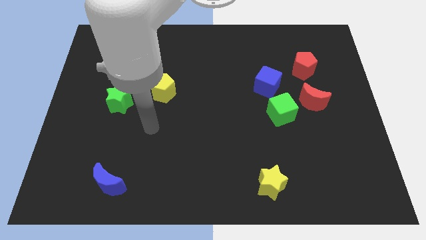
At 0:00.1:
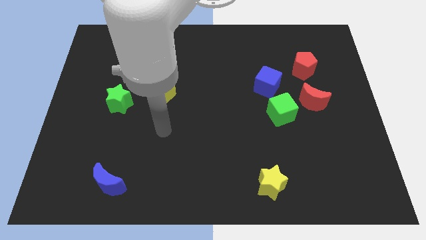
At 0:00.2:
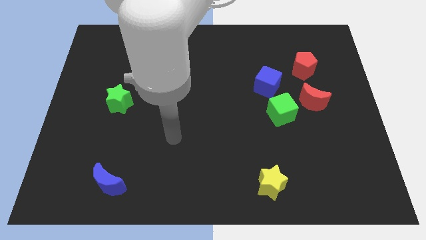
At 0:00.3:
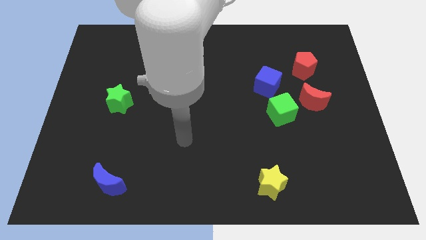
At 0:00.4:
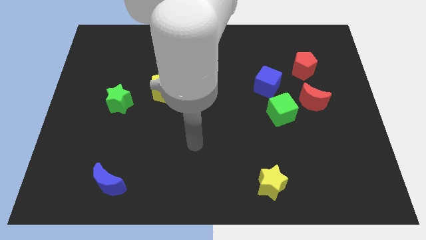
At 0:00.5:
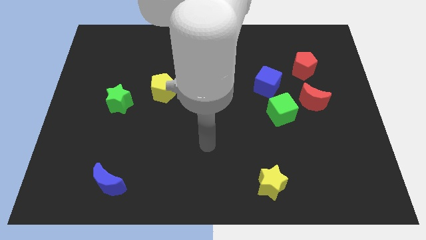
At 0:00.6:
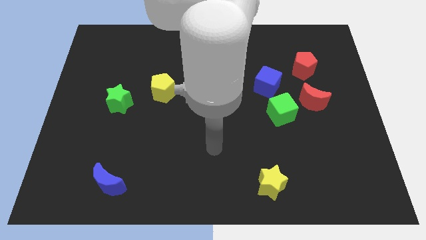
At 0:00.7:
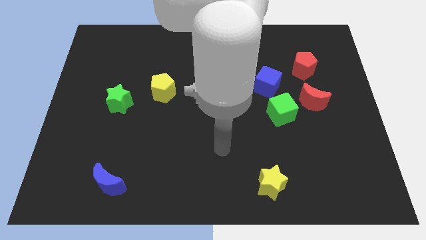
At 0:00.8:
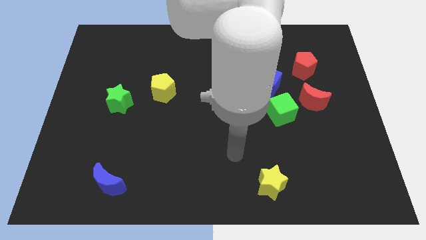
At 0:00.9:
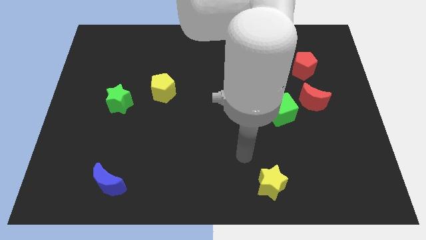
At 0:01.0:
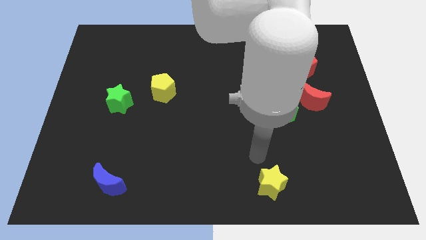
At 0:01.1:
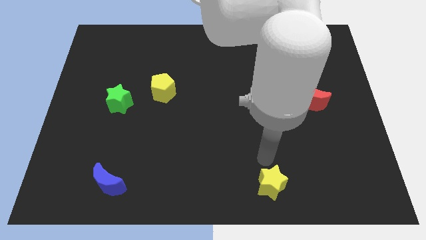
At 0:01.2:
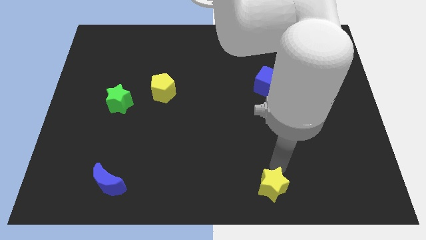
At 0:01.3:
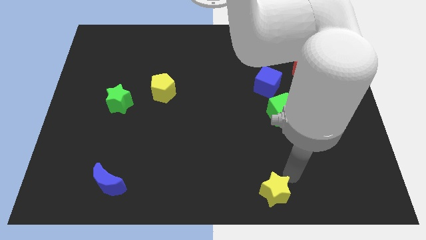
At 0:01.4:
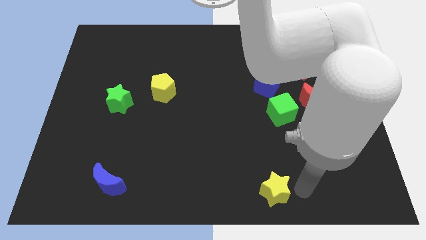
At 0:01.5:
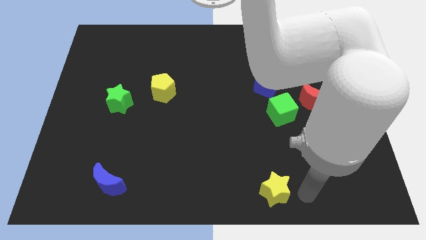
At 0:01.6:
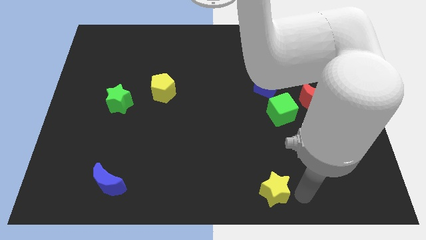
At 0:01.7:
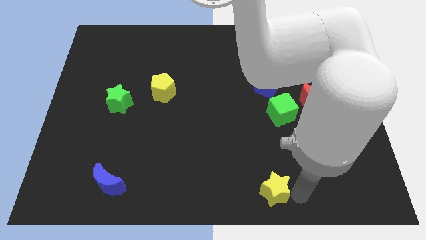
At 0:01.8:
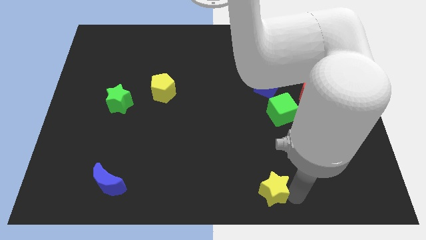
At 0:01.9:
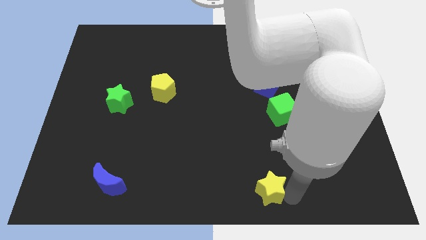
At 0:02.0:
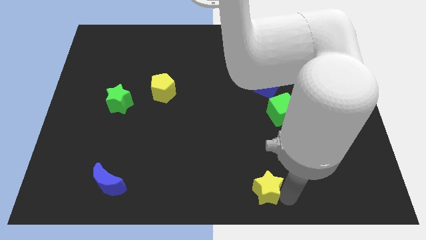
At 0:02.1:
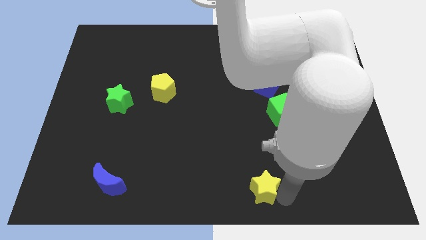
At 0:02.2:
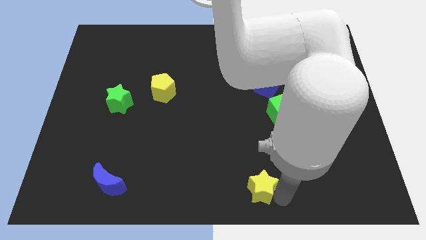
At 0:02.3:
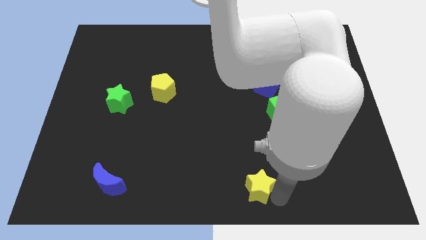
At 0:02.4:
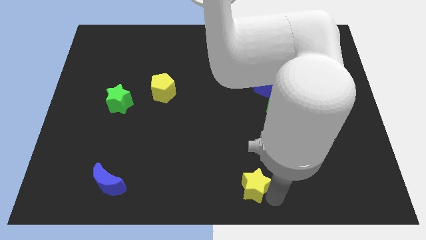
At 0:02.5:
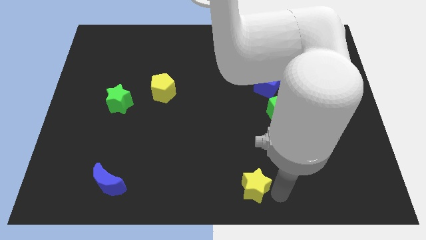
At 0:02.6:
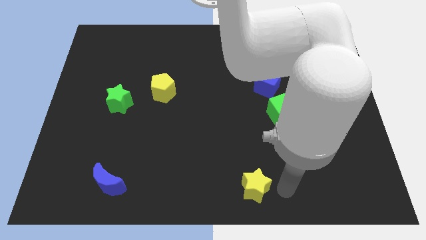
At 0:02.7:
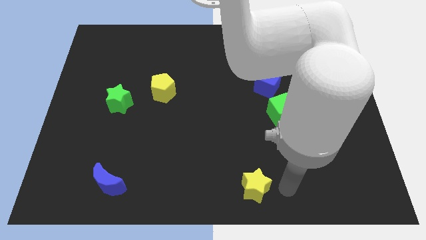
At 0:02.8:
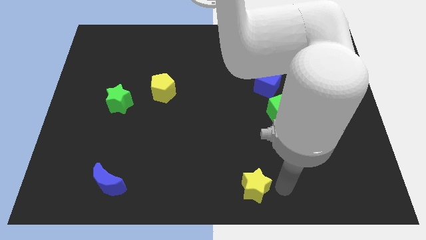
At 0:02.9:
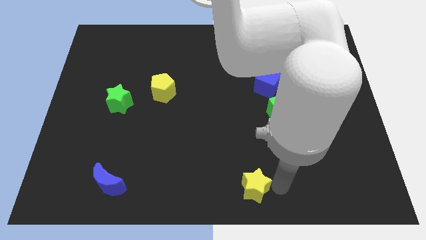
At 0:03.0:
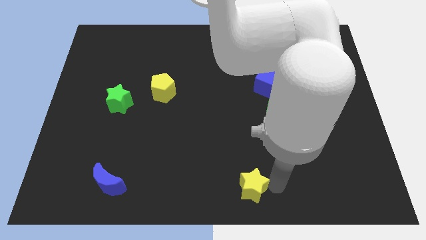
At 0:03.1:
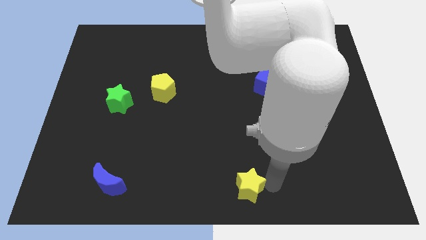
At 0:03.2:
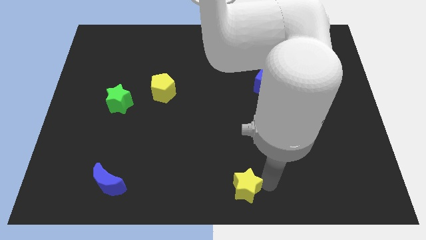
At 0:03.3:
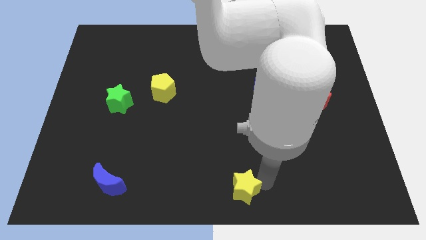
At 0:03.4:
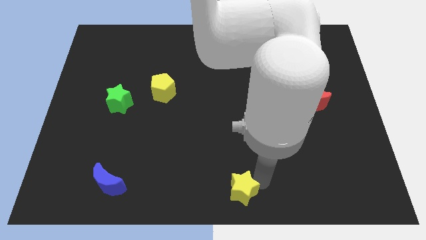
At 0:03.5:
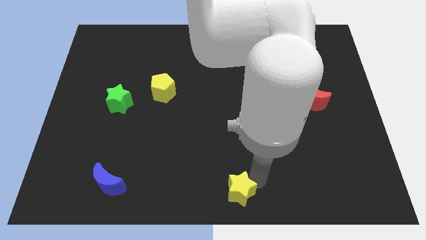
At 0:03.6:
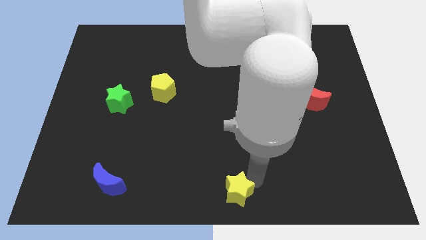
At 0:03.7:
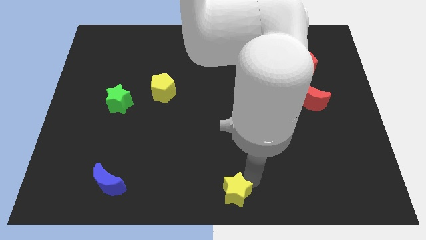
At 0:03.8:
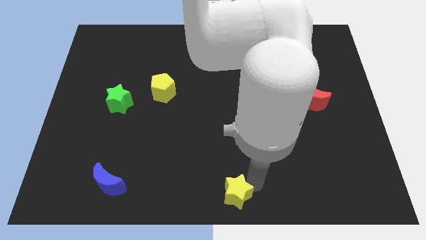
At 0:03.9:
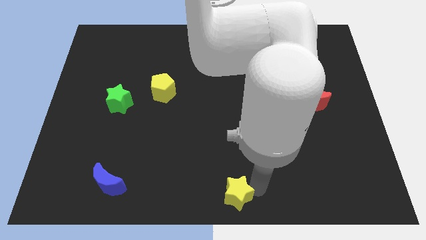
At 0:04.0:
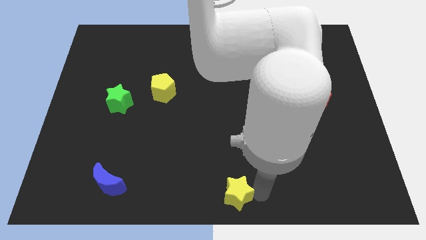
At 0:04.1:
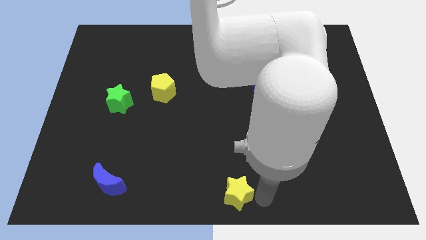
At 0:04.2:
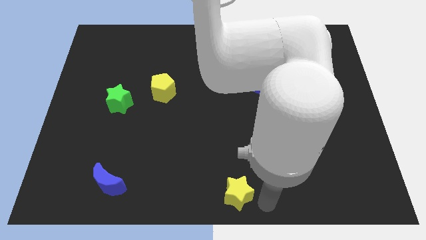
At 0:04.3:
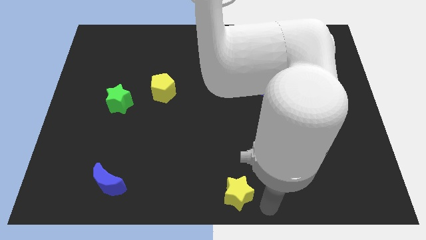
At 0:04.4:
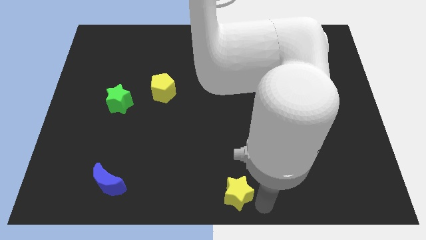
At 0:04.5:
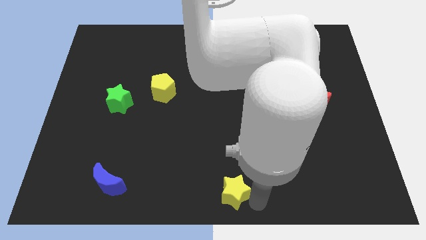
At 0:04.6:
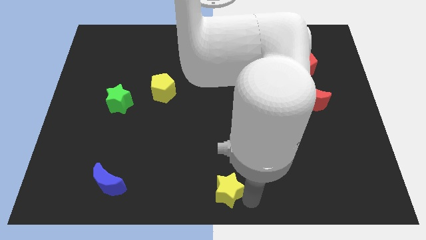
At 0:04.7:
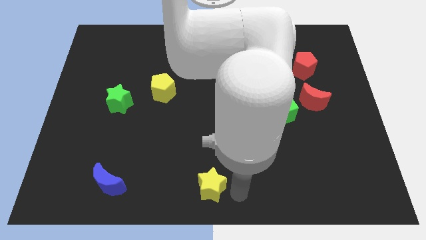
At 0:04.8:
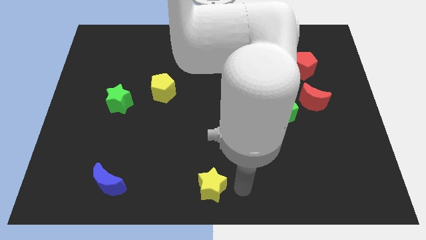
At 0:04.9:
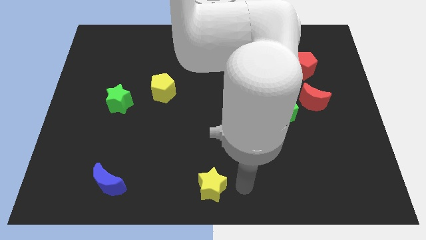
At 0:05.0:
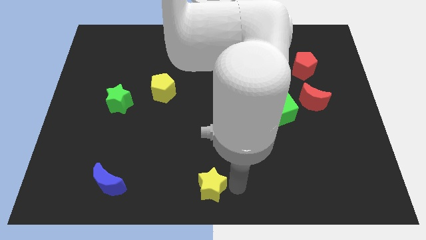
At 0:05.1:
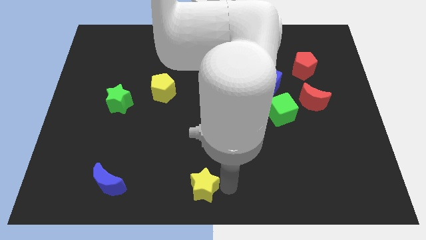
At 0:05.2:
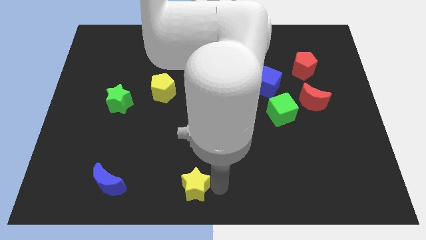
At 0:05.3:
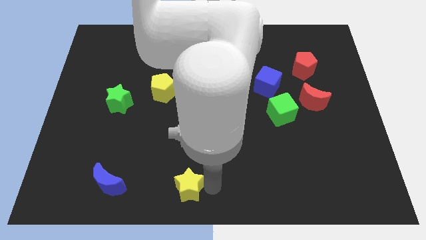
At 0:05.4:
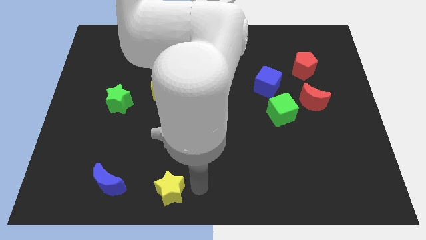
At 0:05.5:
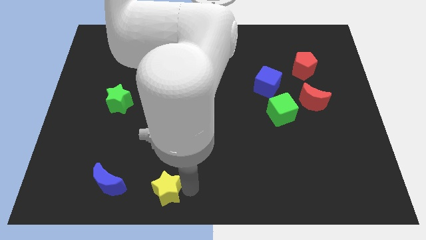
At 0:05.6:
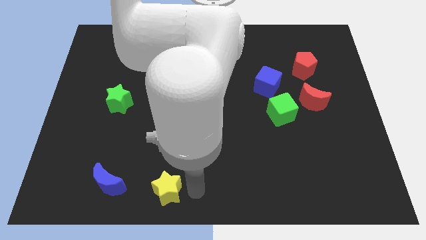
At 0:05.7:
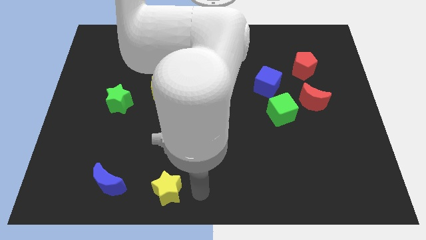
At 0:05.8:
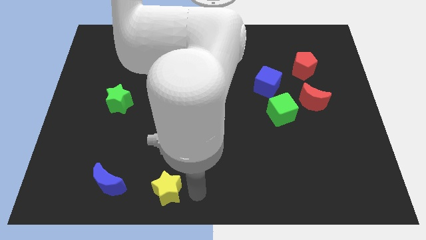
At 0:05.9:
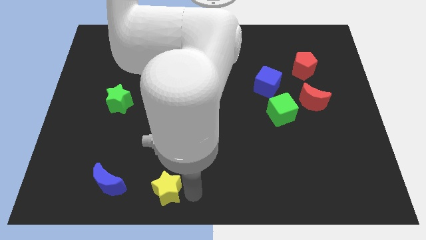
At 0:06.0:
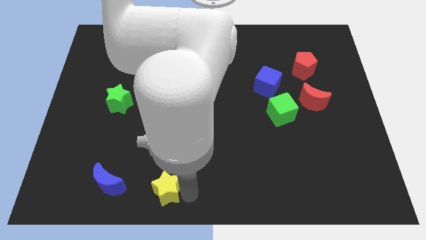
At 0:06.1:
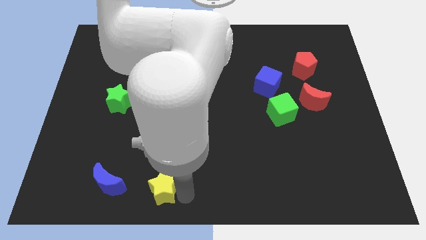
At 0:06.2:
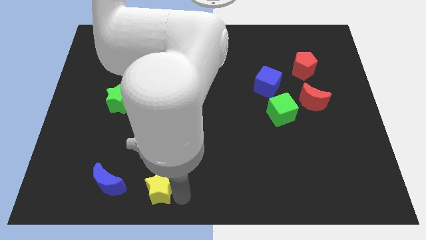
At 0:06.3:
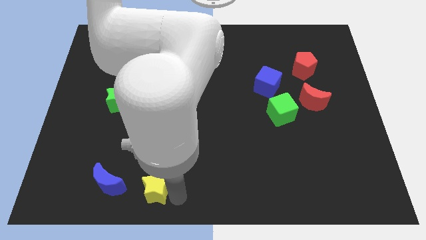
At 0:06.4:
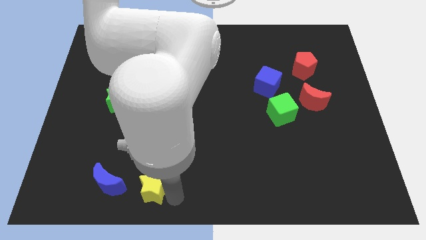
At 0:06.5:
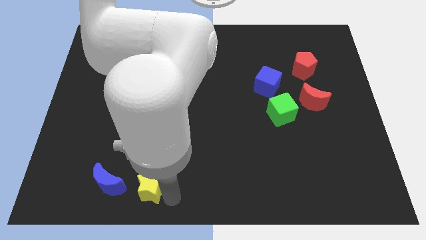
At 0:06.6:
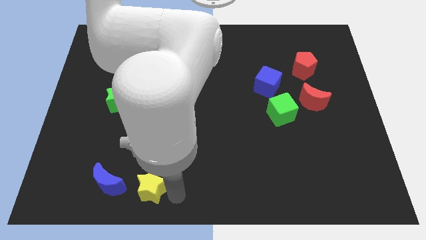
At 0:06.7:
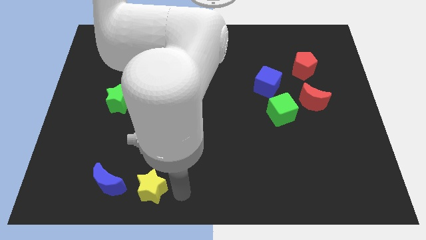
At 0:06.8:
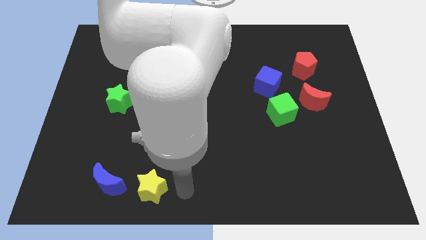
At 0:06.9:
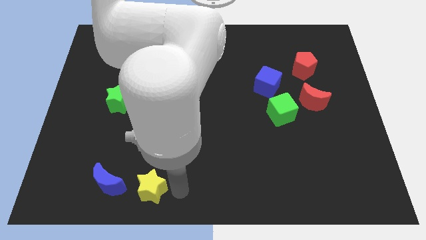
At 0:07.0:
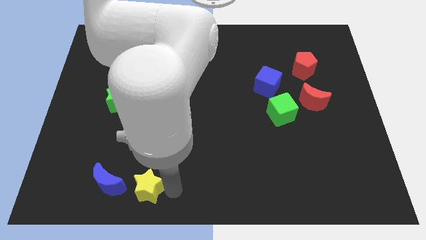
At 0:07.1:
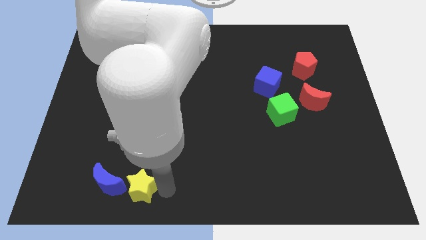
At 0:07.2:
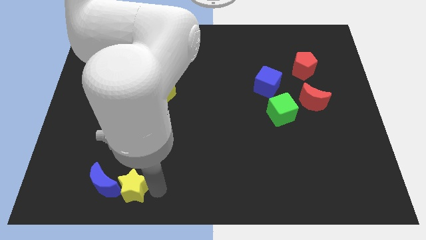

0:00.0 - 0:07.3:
slide the yellow star close to the blue moon
